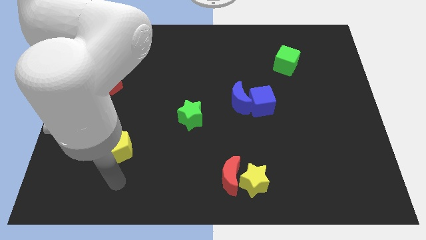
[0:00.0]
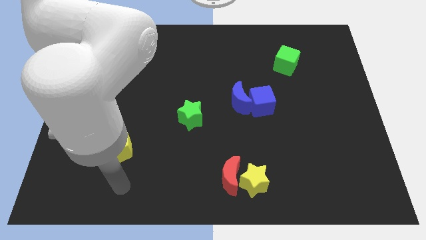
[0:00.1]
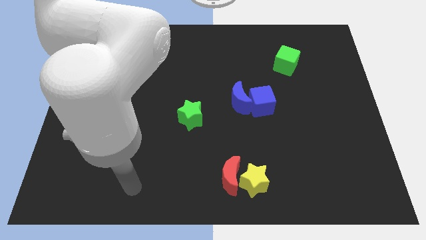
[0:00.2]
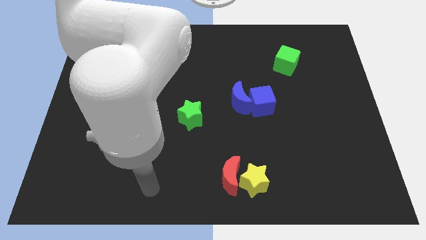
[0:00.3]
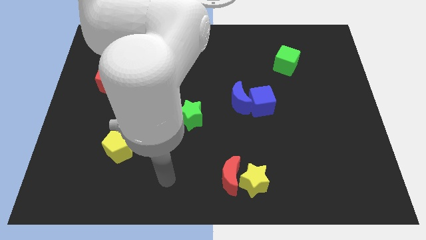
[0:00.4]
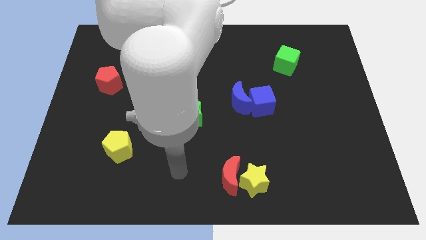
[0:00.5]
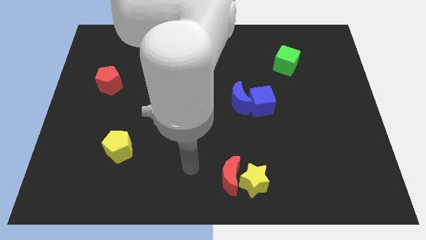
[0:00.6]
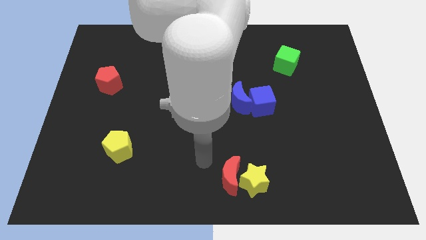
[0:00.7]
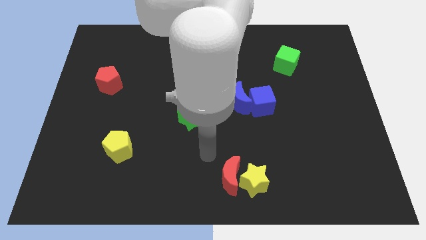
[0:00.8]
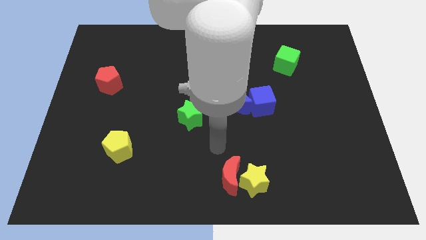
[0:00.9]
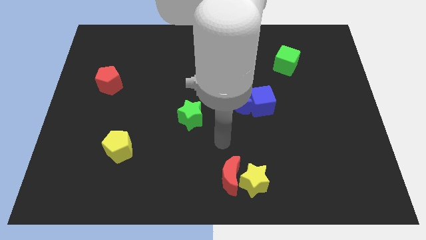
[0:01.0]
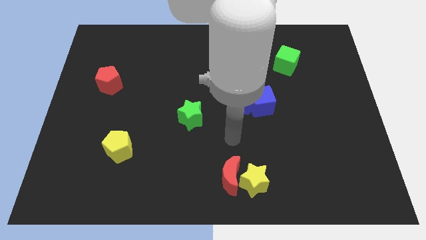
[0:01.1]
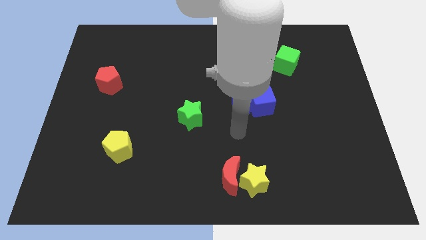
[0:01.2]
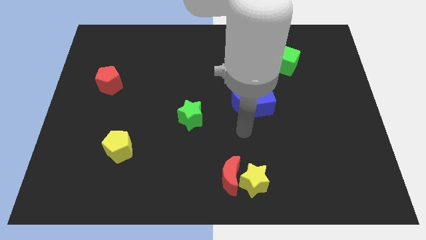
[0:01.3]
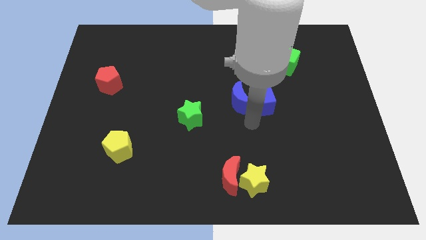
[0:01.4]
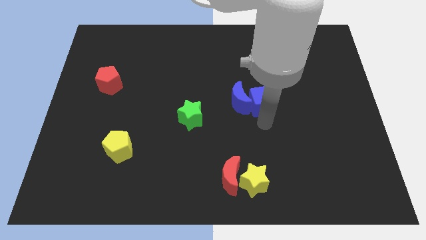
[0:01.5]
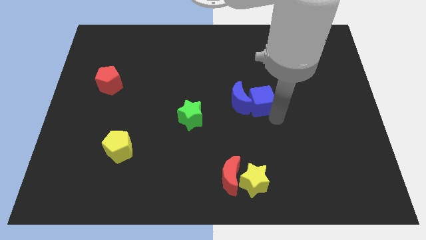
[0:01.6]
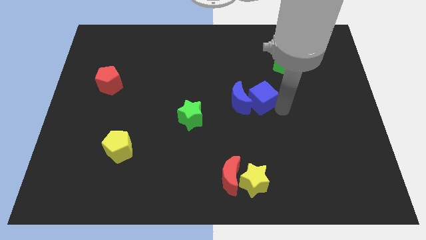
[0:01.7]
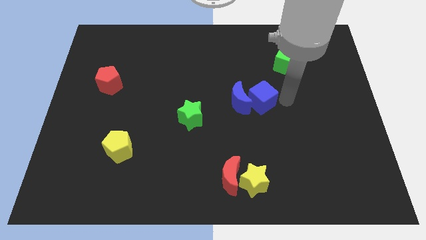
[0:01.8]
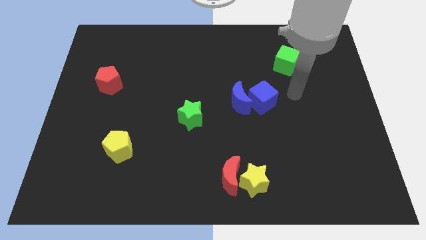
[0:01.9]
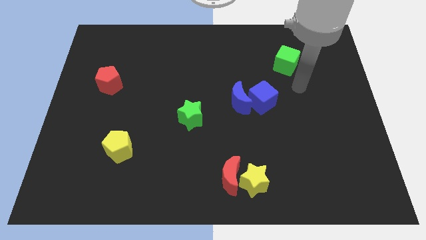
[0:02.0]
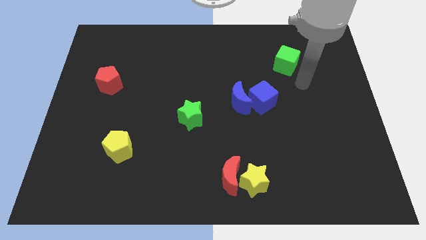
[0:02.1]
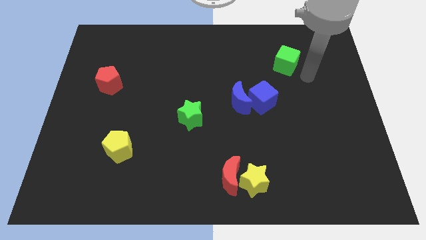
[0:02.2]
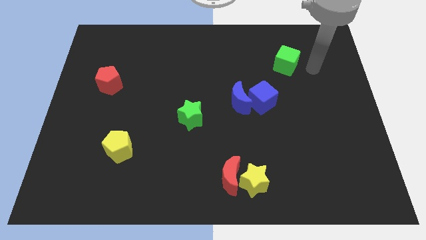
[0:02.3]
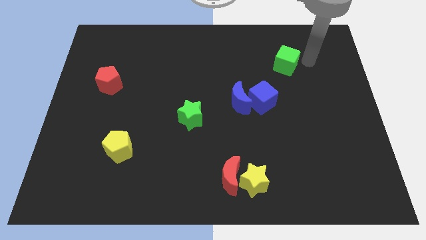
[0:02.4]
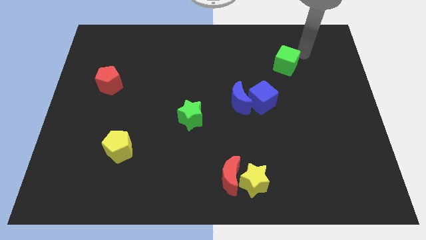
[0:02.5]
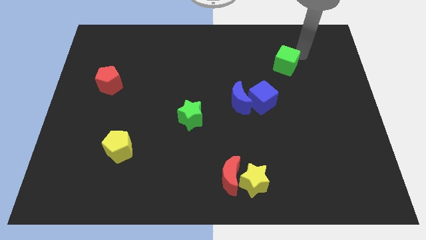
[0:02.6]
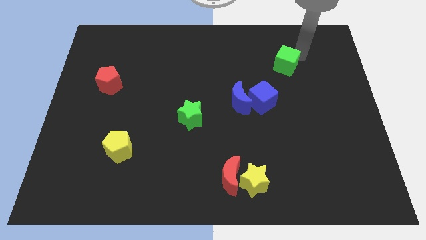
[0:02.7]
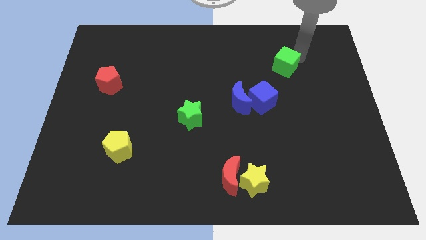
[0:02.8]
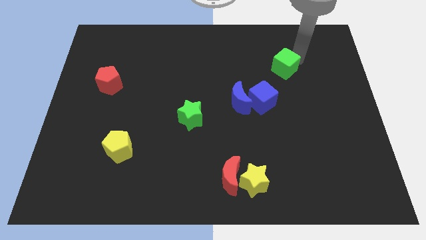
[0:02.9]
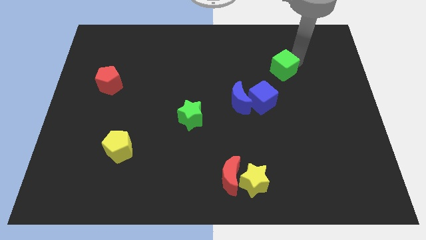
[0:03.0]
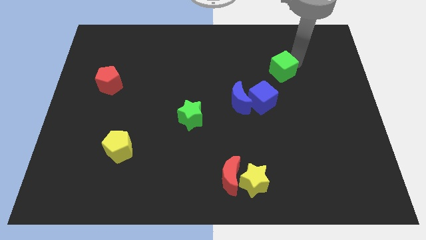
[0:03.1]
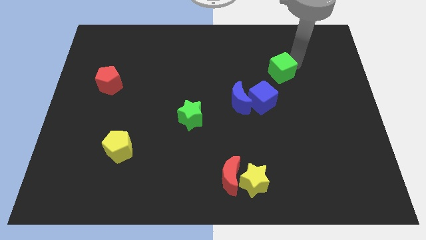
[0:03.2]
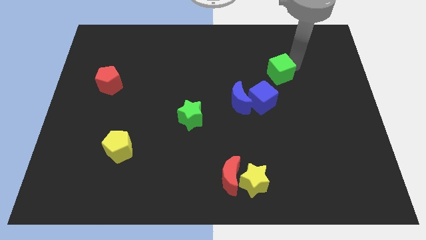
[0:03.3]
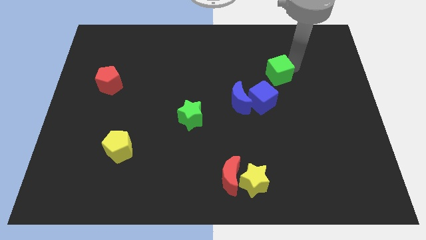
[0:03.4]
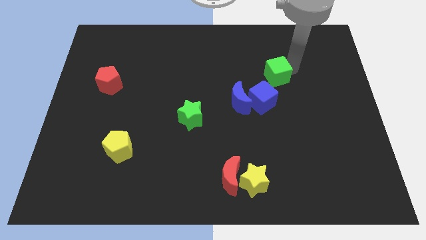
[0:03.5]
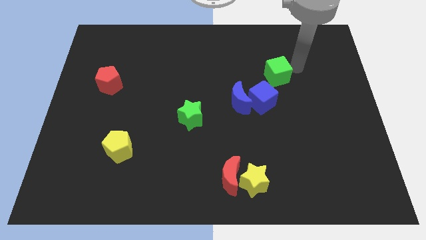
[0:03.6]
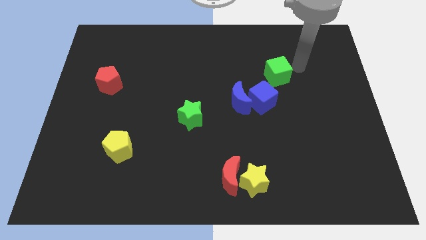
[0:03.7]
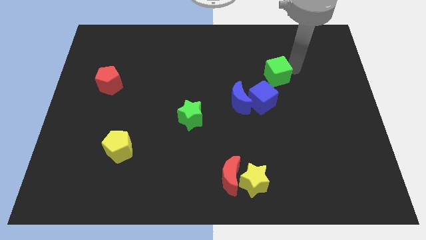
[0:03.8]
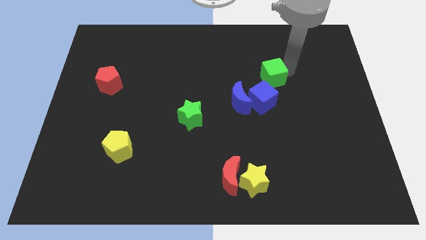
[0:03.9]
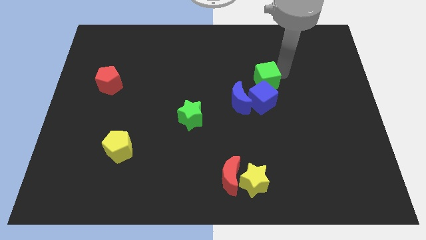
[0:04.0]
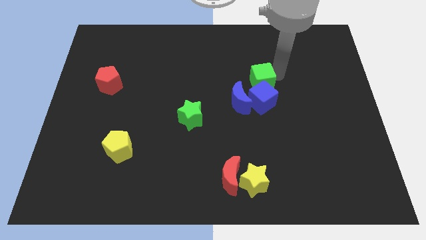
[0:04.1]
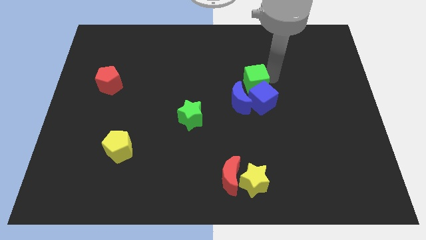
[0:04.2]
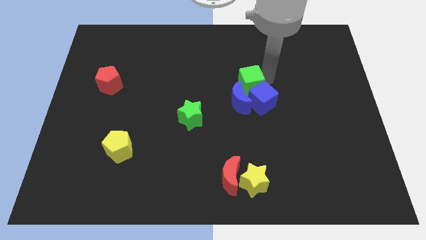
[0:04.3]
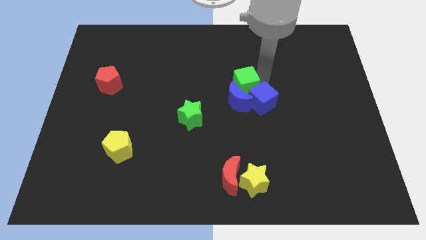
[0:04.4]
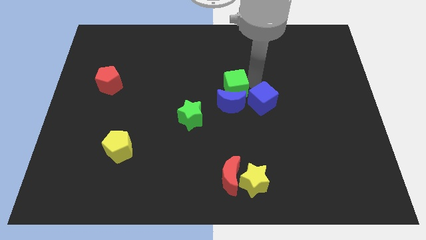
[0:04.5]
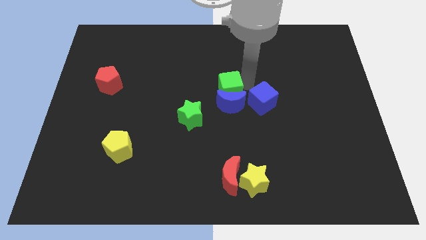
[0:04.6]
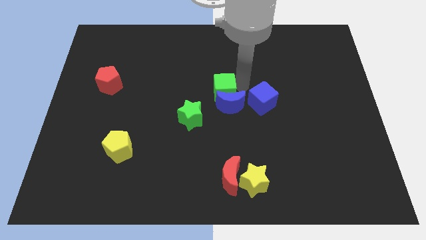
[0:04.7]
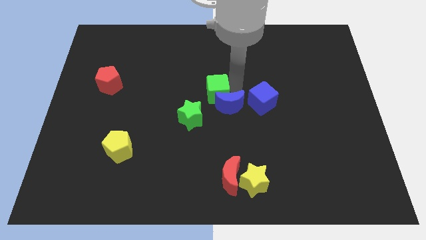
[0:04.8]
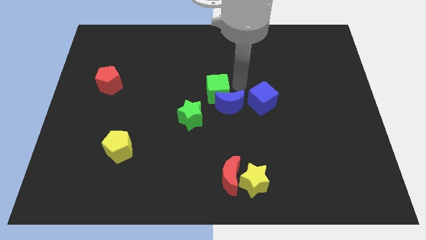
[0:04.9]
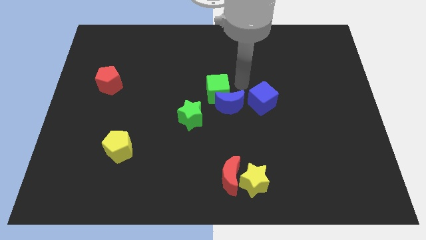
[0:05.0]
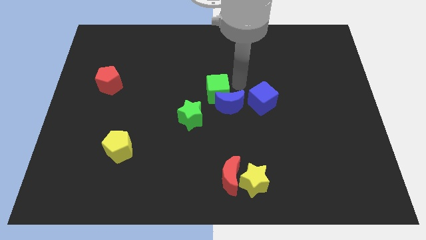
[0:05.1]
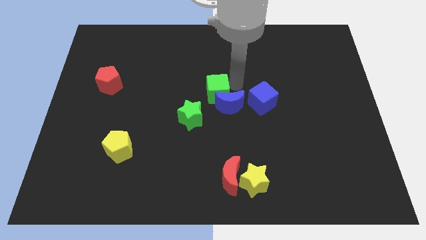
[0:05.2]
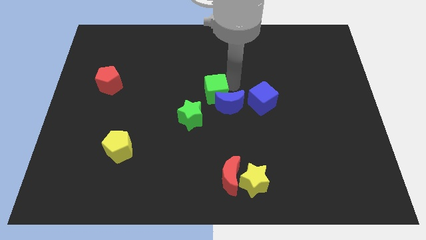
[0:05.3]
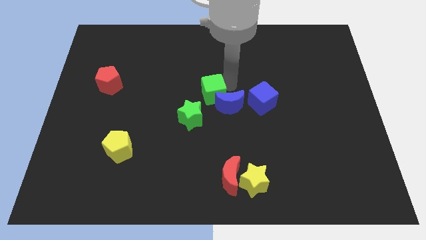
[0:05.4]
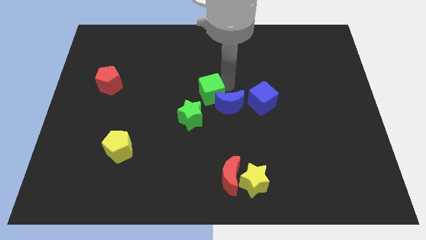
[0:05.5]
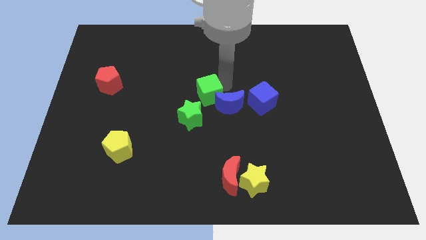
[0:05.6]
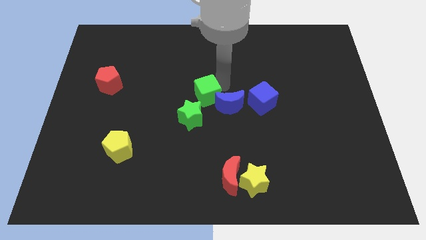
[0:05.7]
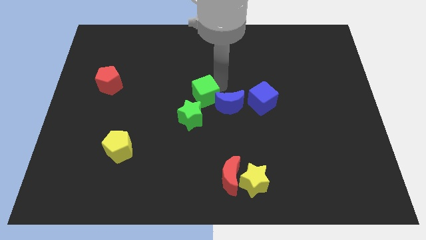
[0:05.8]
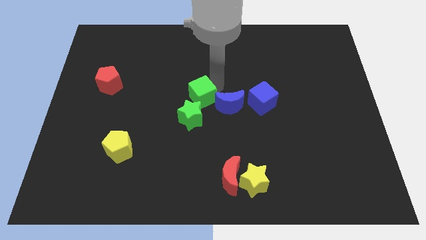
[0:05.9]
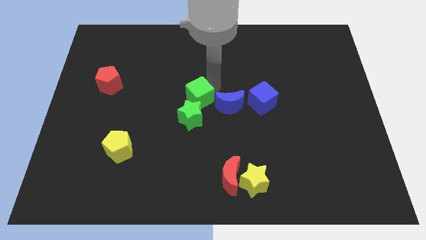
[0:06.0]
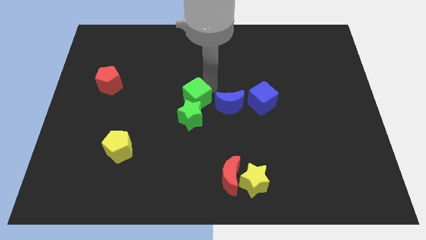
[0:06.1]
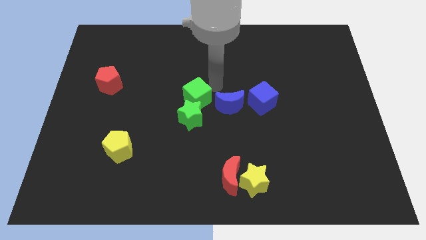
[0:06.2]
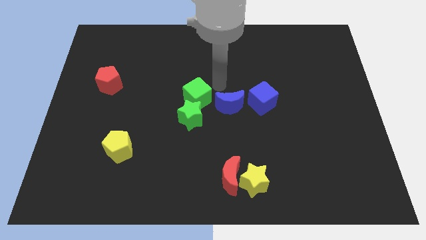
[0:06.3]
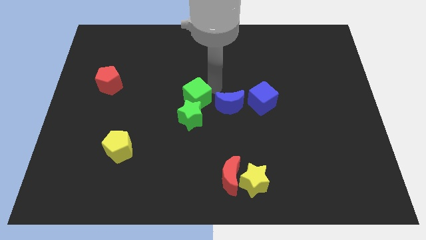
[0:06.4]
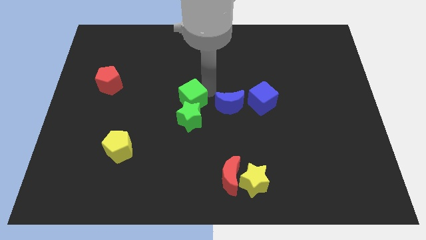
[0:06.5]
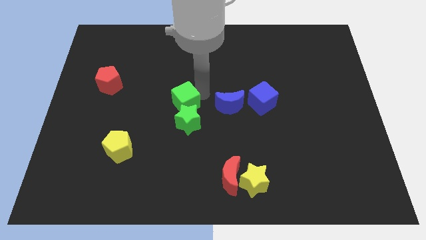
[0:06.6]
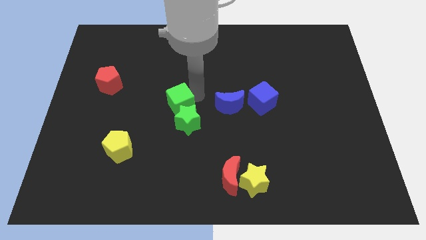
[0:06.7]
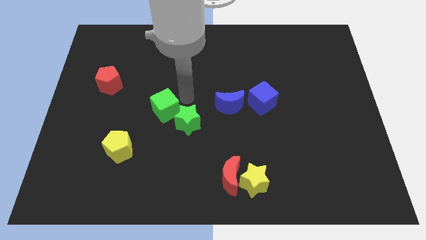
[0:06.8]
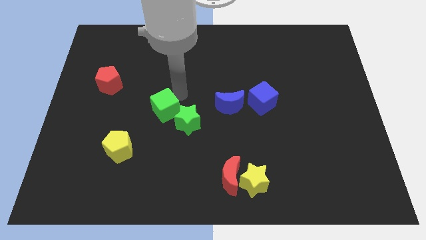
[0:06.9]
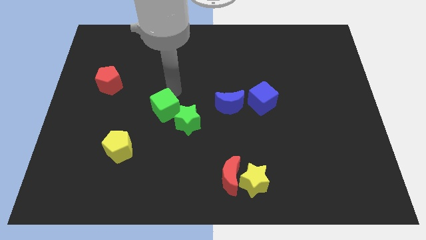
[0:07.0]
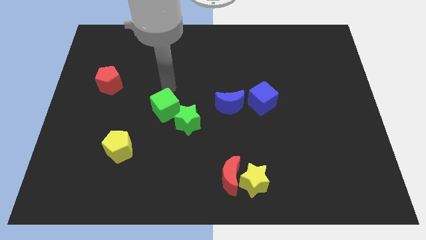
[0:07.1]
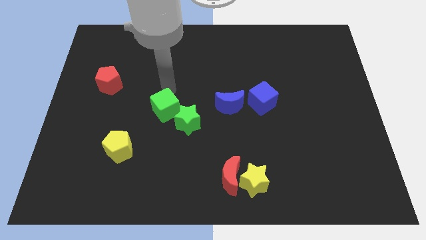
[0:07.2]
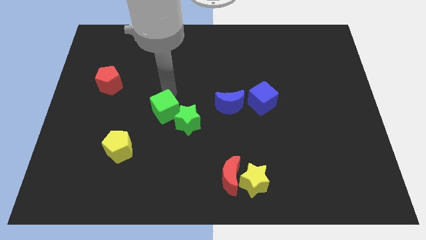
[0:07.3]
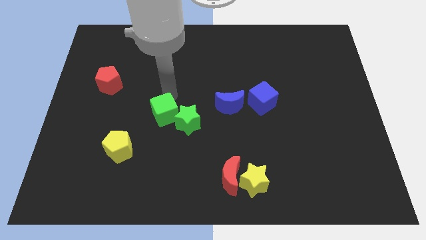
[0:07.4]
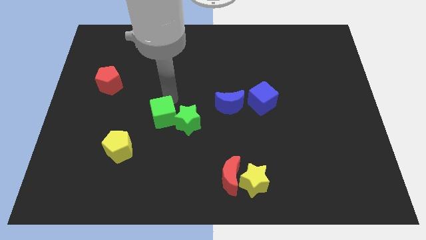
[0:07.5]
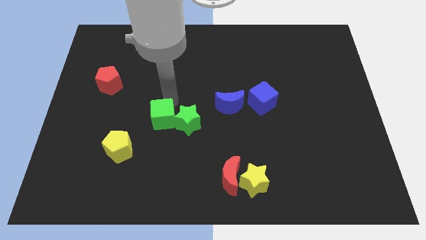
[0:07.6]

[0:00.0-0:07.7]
slide the green cube to the bottom left of the green star
